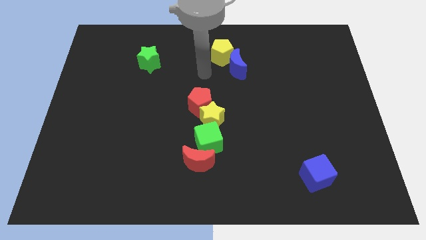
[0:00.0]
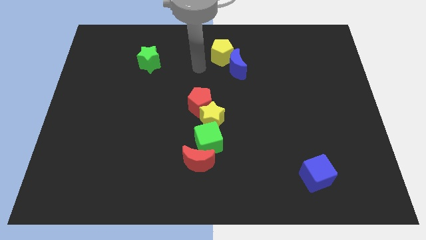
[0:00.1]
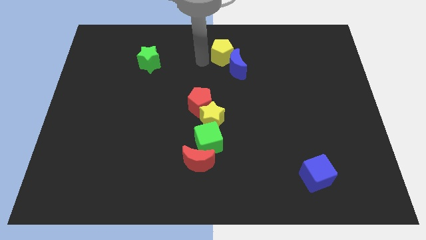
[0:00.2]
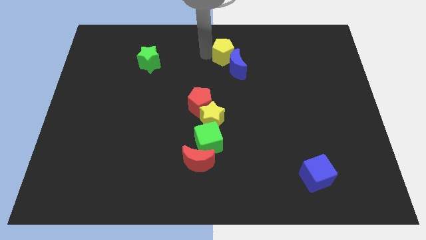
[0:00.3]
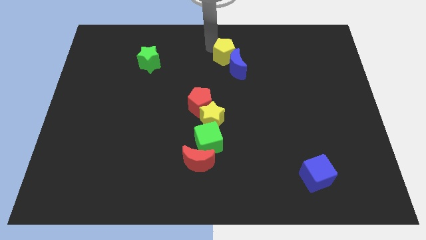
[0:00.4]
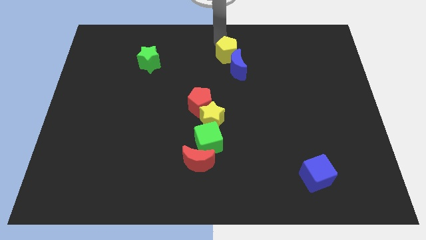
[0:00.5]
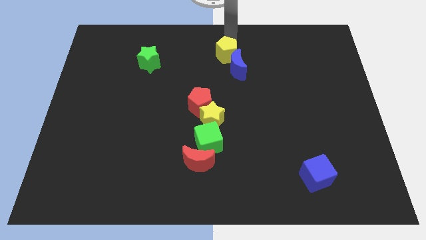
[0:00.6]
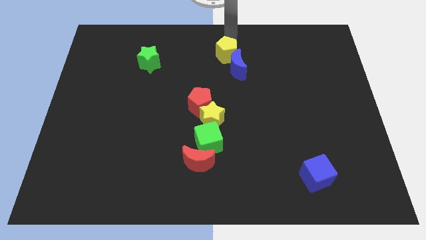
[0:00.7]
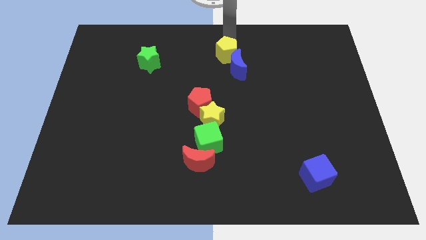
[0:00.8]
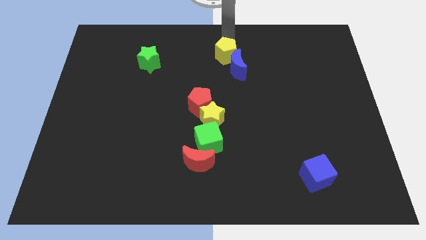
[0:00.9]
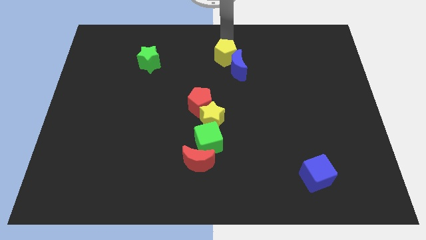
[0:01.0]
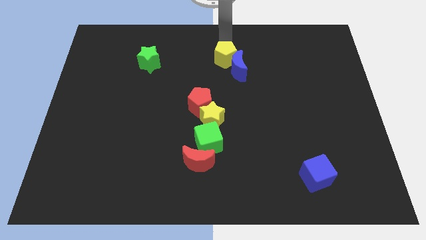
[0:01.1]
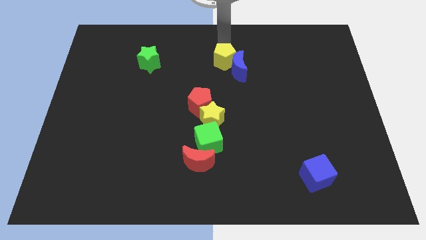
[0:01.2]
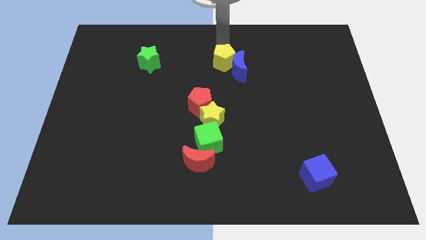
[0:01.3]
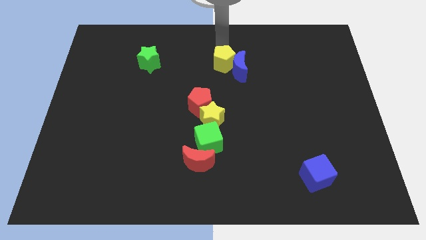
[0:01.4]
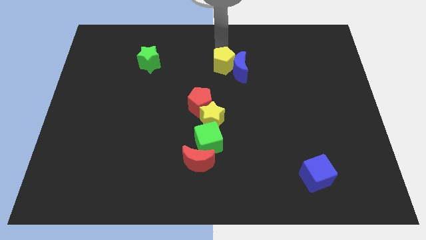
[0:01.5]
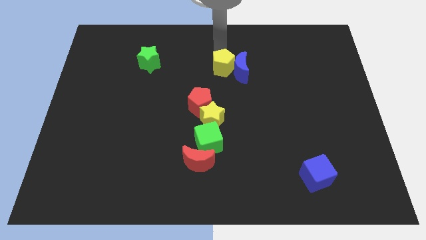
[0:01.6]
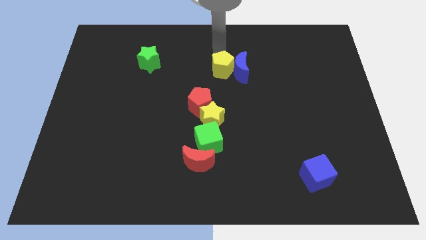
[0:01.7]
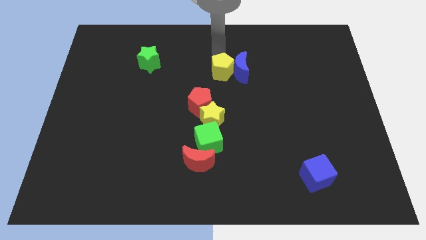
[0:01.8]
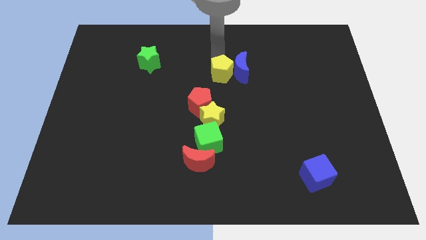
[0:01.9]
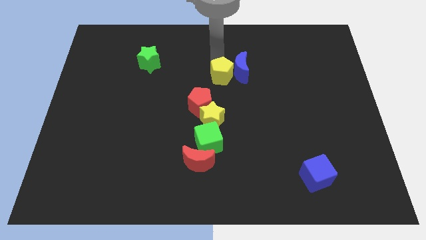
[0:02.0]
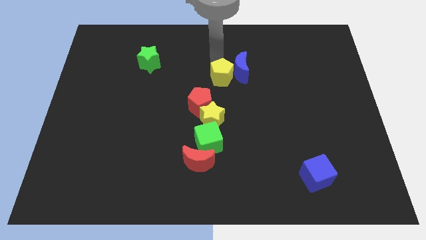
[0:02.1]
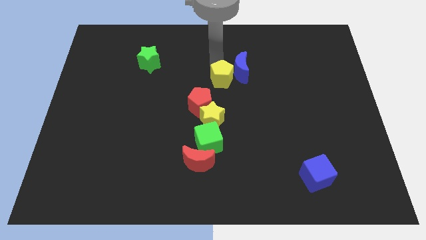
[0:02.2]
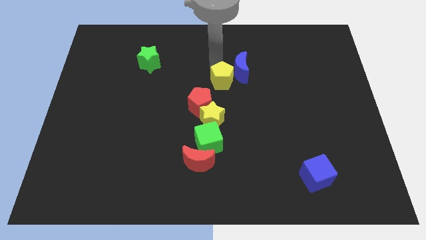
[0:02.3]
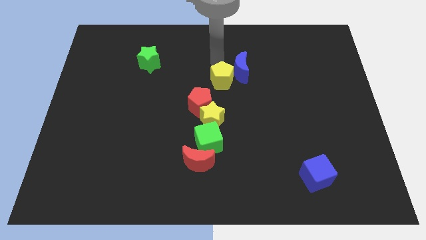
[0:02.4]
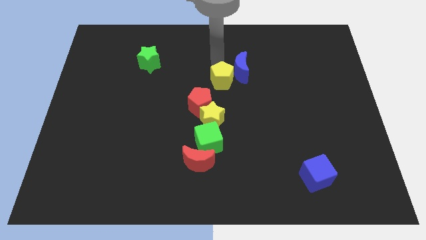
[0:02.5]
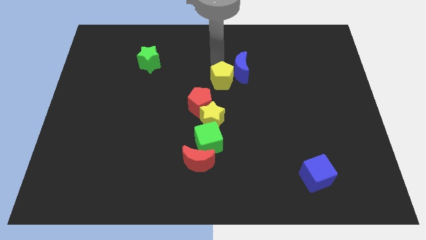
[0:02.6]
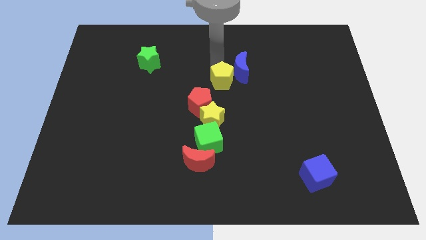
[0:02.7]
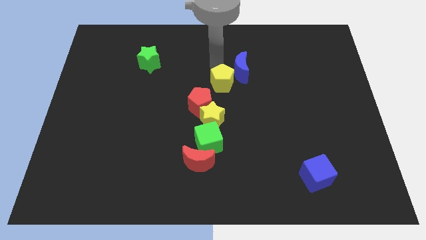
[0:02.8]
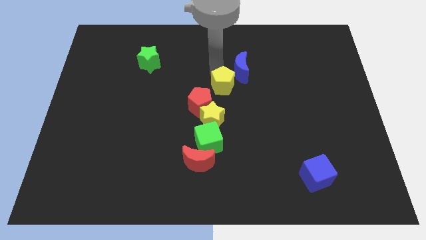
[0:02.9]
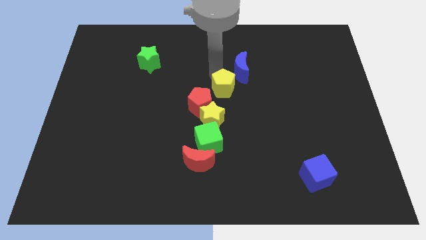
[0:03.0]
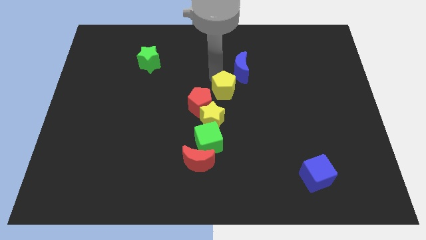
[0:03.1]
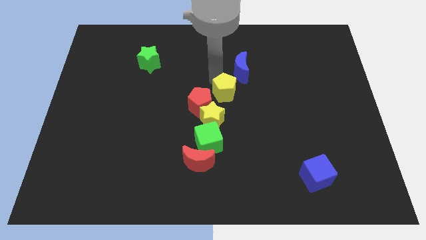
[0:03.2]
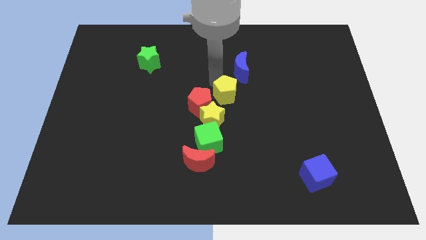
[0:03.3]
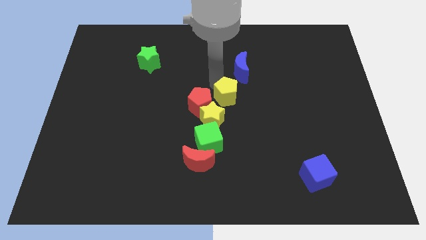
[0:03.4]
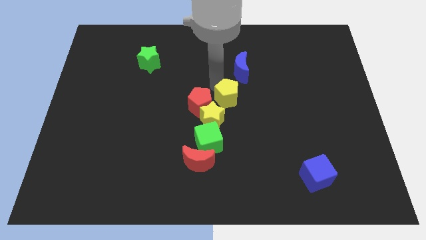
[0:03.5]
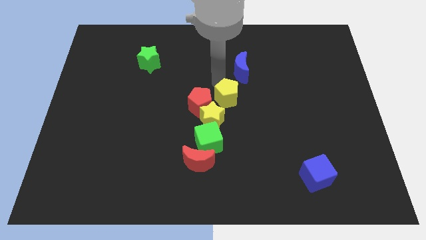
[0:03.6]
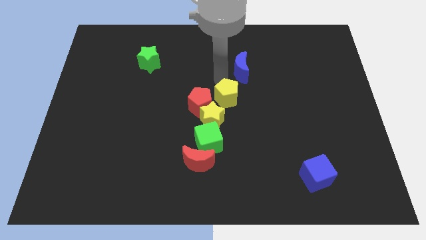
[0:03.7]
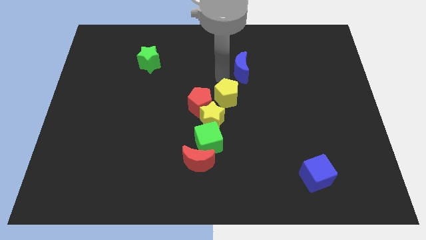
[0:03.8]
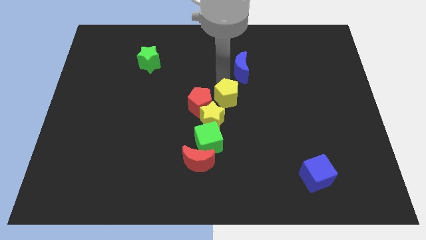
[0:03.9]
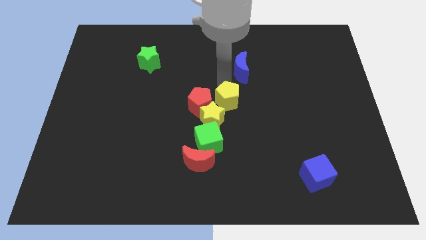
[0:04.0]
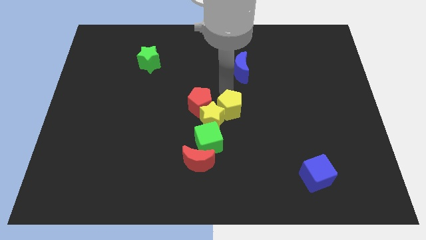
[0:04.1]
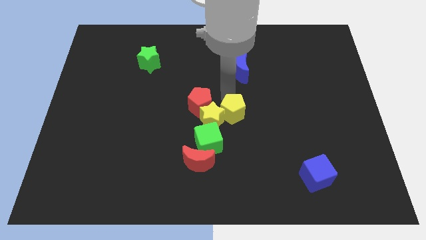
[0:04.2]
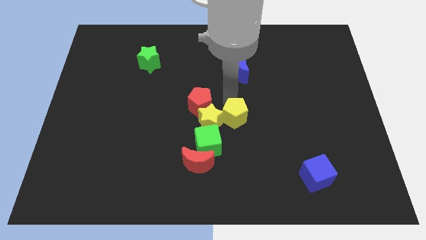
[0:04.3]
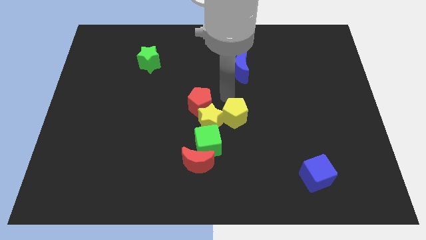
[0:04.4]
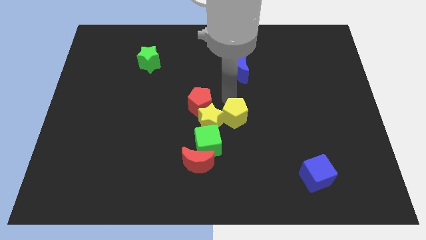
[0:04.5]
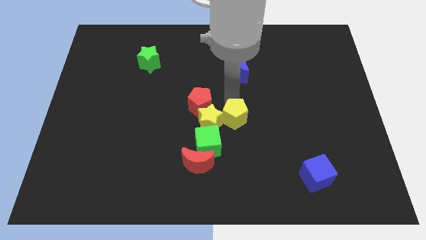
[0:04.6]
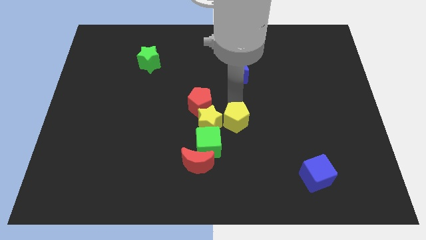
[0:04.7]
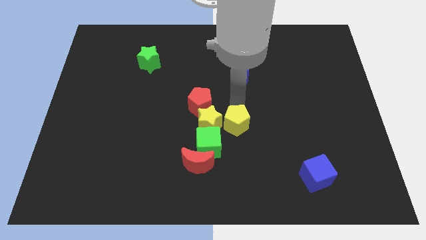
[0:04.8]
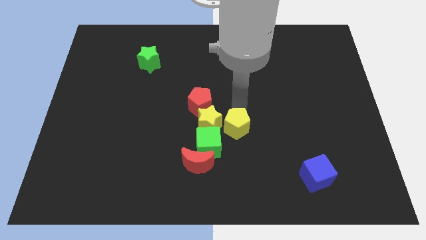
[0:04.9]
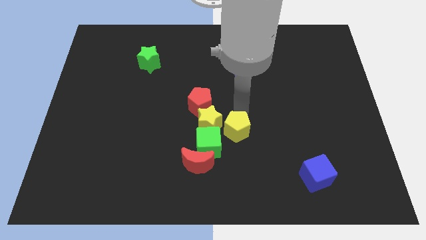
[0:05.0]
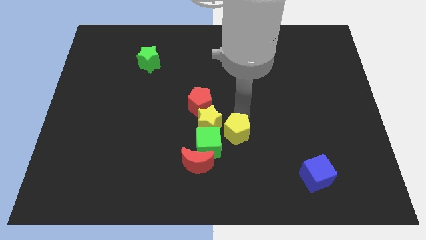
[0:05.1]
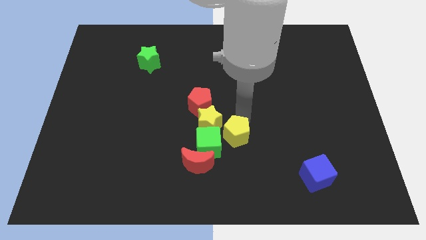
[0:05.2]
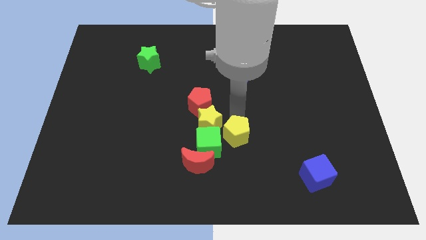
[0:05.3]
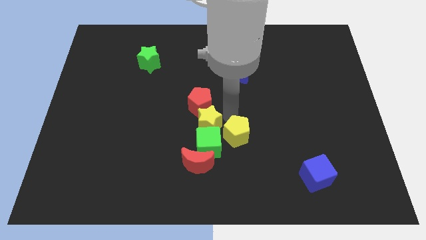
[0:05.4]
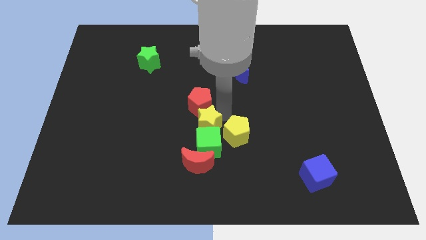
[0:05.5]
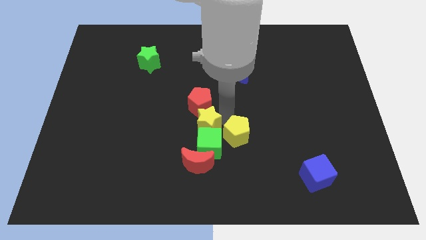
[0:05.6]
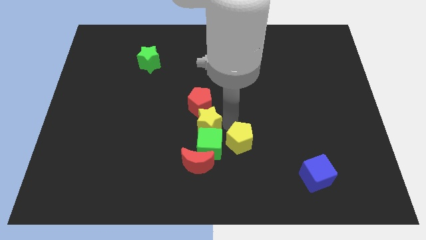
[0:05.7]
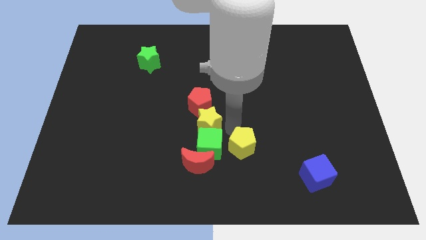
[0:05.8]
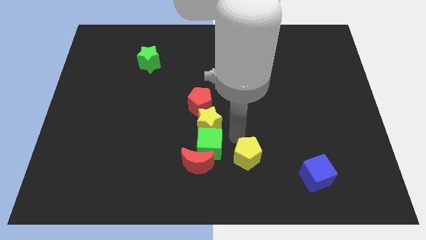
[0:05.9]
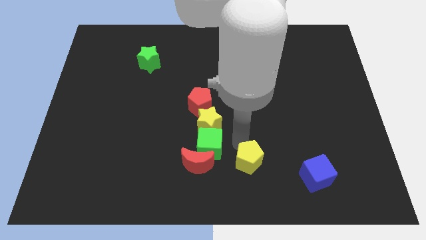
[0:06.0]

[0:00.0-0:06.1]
move the yellow pentagon to the left of the blue cube

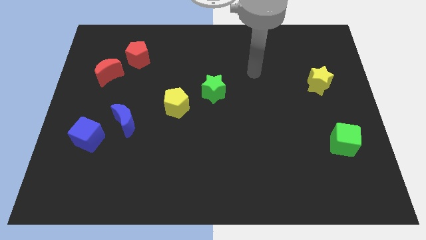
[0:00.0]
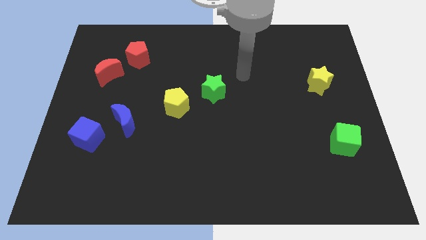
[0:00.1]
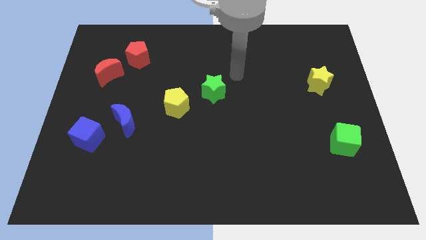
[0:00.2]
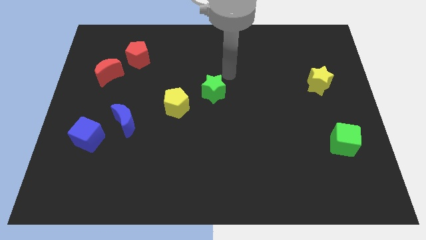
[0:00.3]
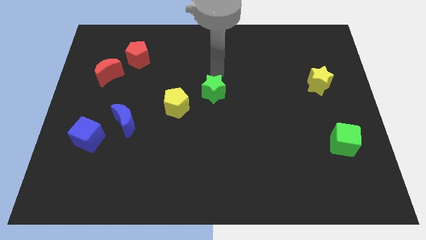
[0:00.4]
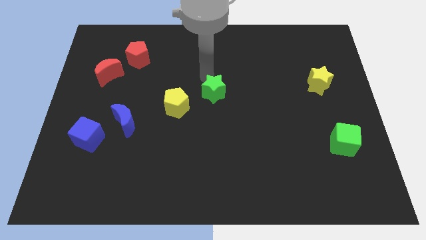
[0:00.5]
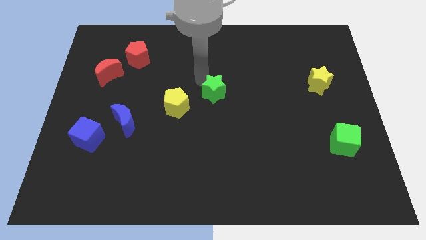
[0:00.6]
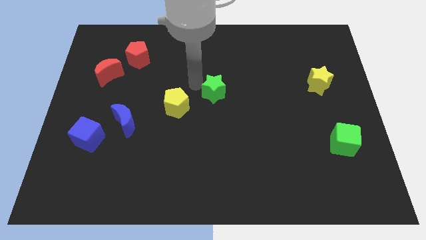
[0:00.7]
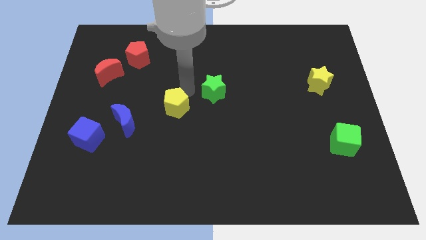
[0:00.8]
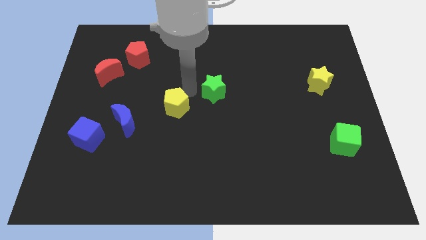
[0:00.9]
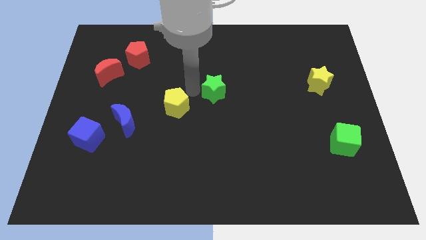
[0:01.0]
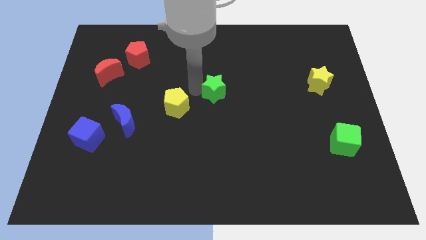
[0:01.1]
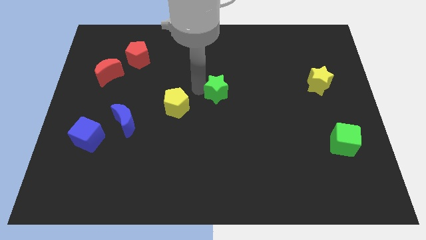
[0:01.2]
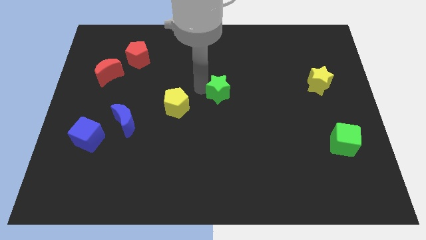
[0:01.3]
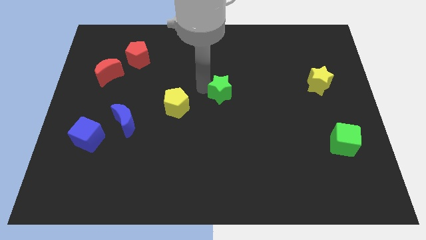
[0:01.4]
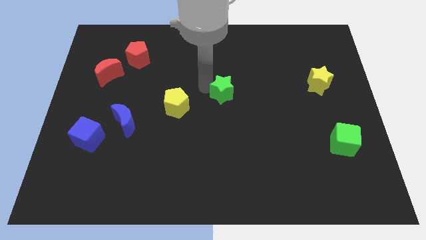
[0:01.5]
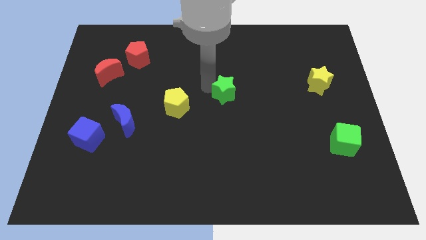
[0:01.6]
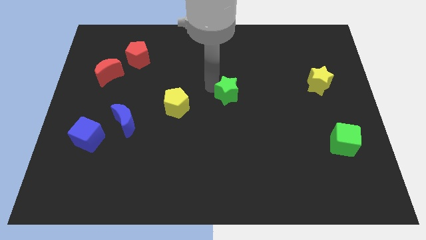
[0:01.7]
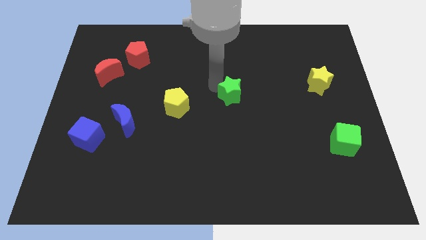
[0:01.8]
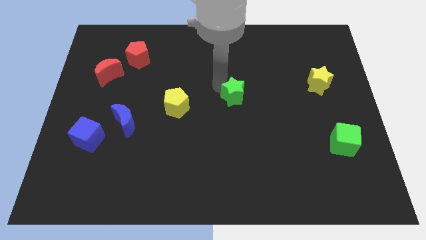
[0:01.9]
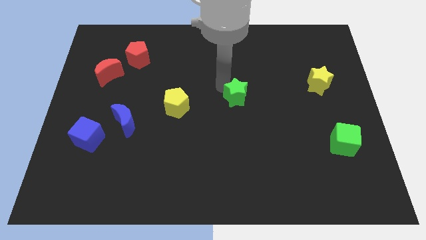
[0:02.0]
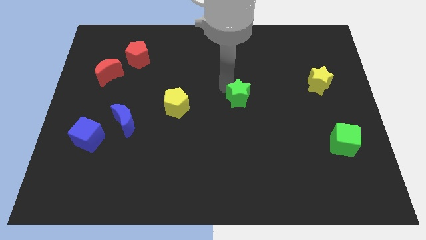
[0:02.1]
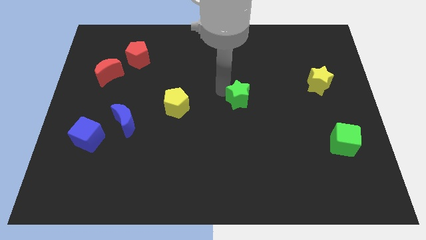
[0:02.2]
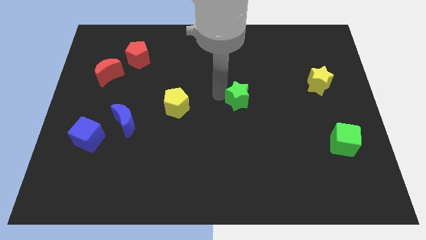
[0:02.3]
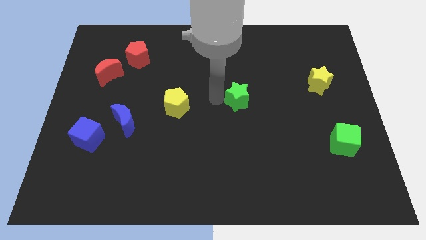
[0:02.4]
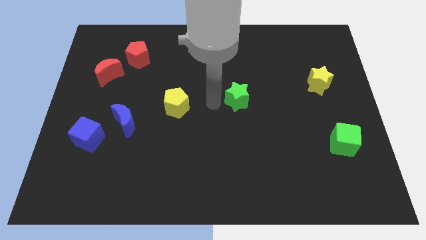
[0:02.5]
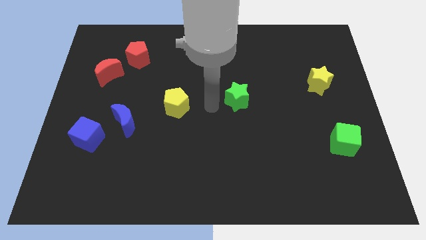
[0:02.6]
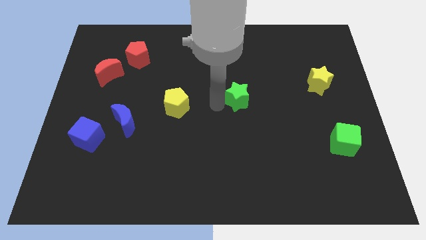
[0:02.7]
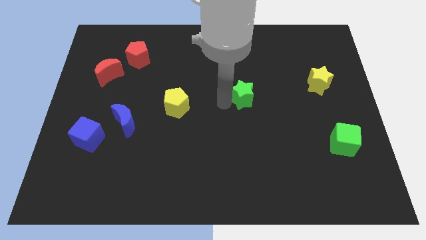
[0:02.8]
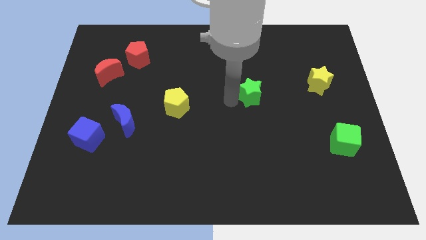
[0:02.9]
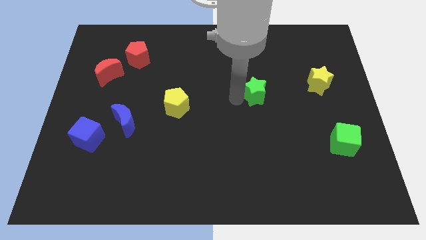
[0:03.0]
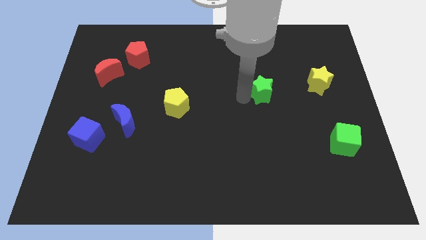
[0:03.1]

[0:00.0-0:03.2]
put the green star to the left of the yellow star
